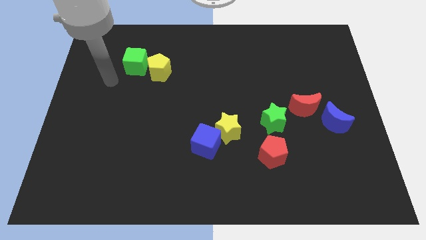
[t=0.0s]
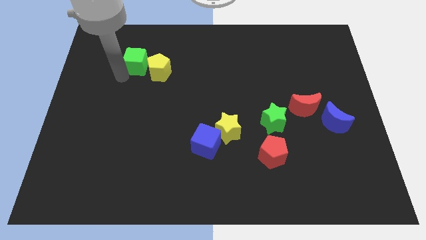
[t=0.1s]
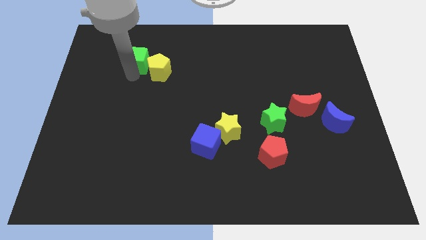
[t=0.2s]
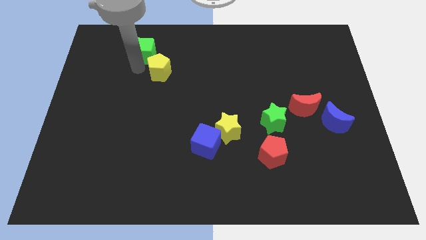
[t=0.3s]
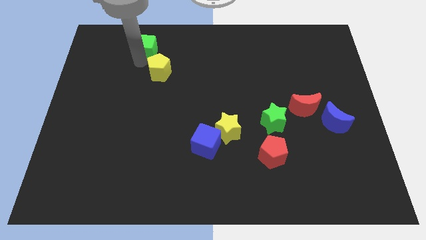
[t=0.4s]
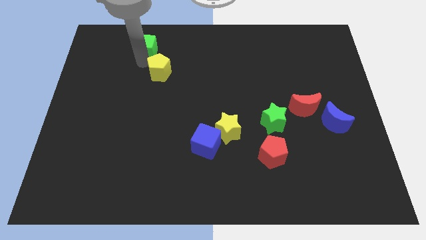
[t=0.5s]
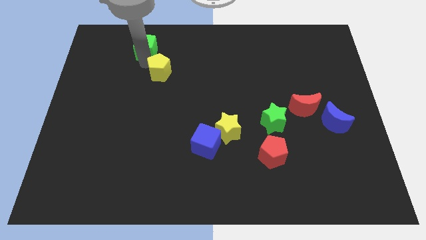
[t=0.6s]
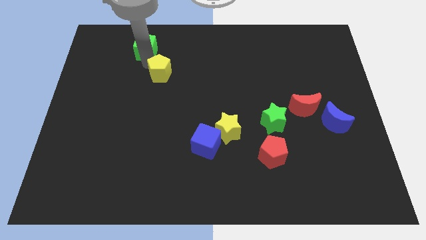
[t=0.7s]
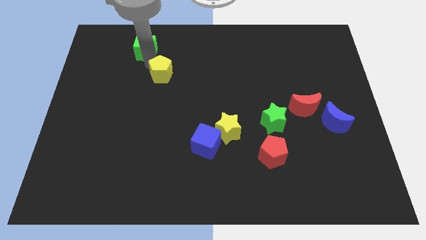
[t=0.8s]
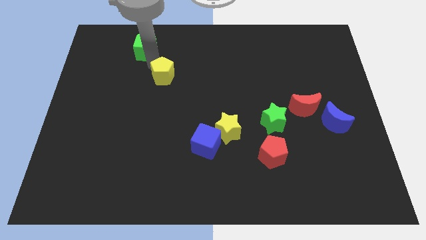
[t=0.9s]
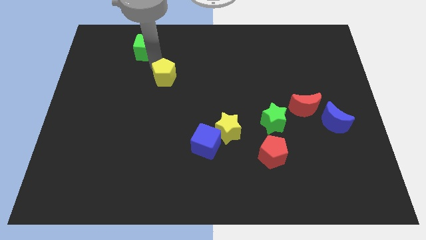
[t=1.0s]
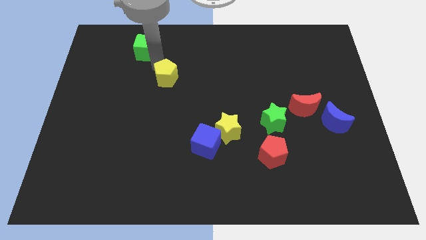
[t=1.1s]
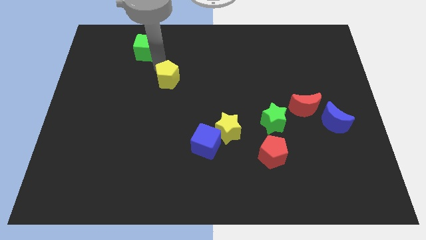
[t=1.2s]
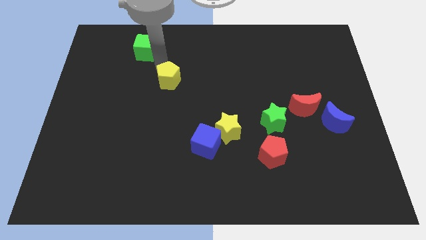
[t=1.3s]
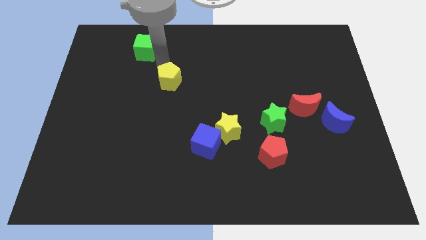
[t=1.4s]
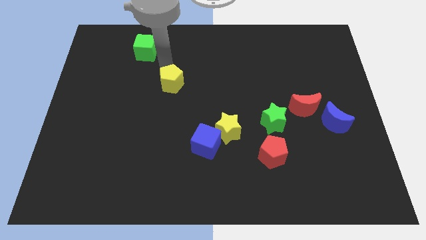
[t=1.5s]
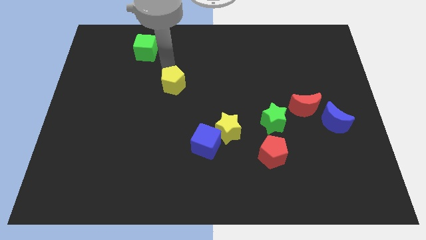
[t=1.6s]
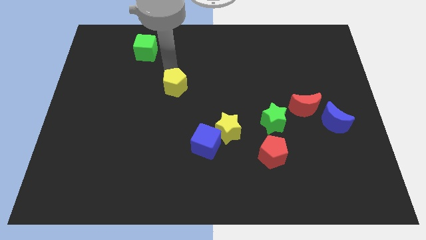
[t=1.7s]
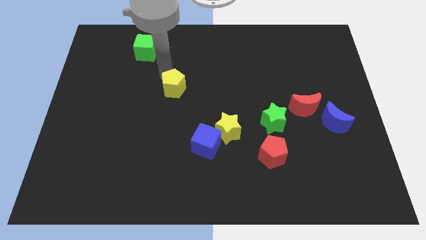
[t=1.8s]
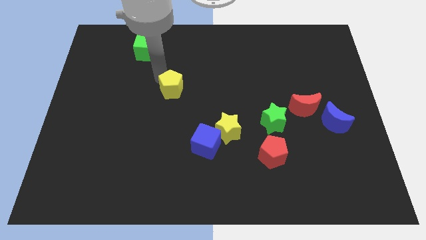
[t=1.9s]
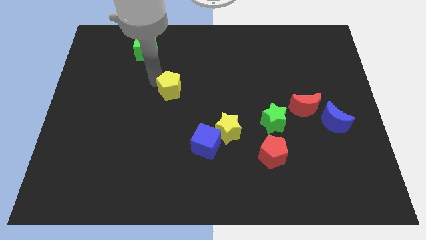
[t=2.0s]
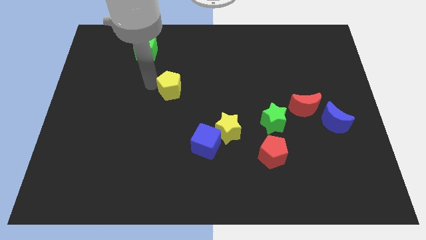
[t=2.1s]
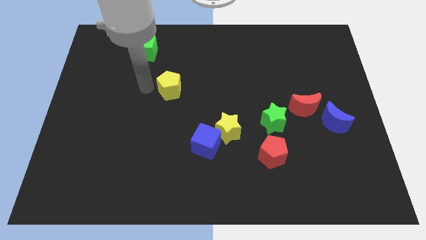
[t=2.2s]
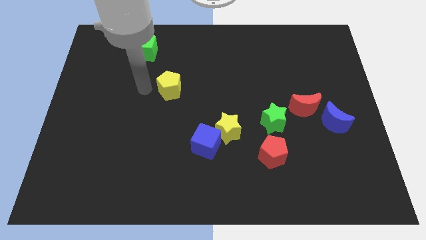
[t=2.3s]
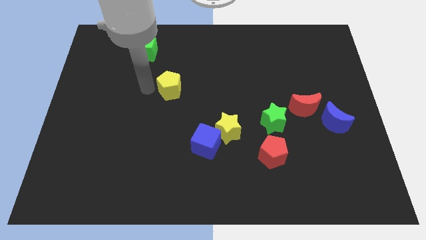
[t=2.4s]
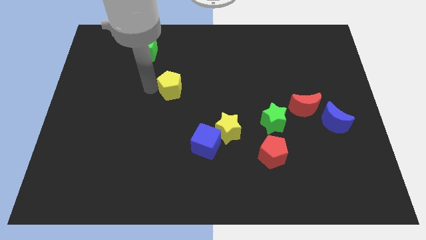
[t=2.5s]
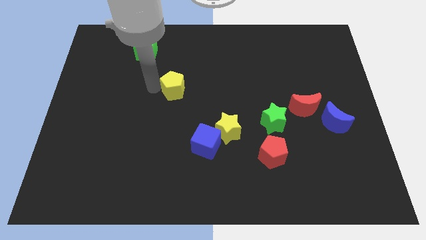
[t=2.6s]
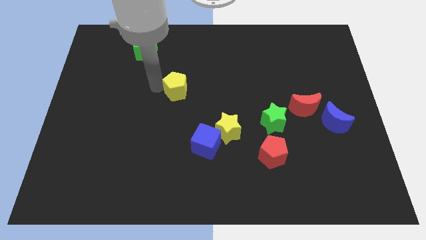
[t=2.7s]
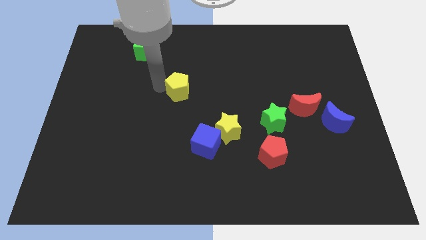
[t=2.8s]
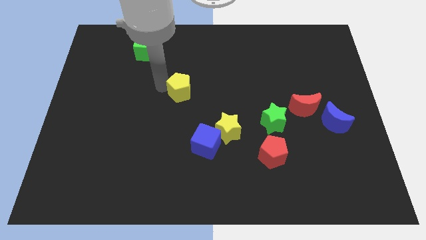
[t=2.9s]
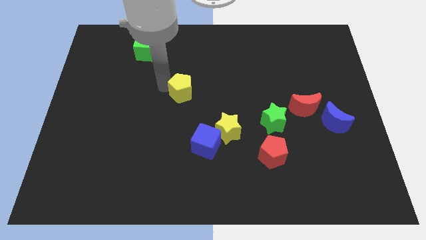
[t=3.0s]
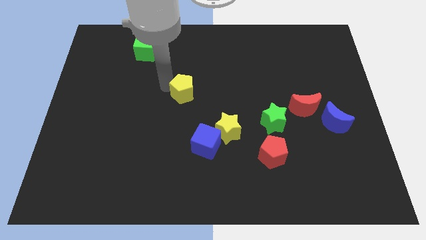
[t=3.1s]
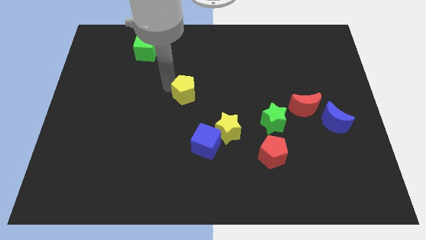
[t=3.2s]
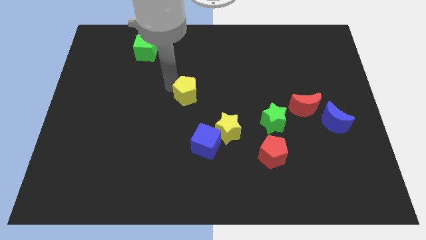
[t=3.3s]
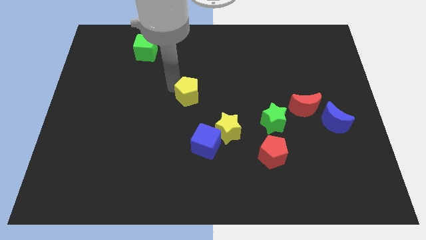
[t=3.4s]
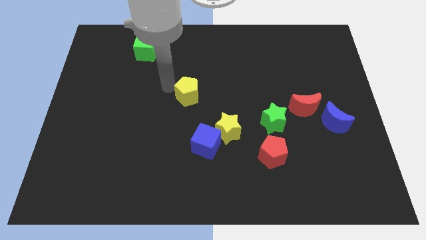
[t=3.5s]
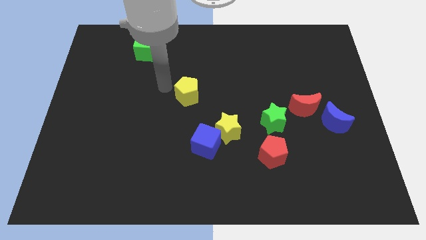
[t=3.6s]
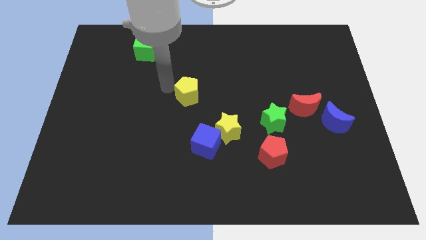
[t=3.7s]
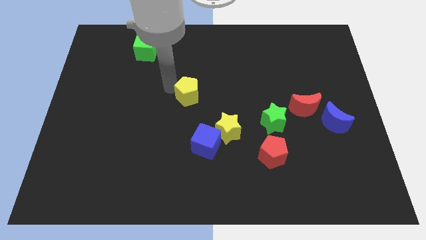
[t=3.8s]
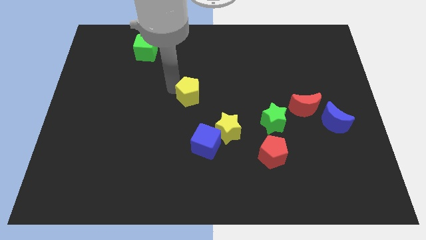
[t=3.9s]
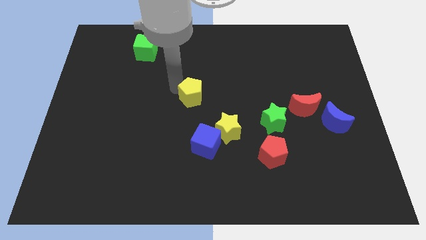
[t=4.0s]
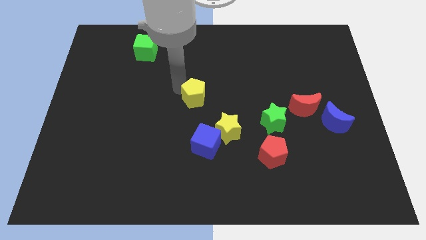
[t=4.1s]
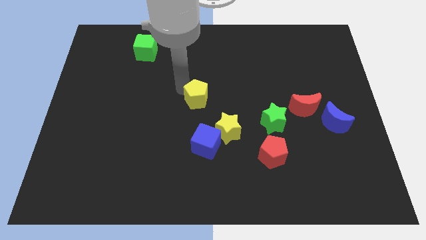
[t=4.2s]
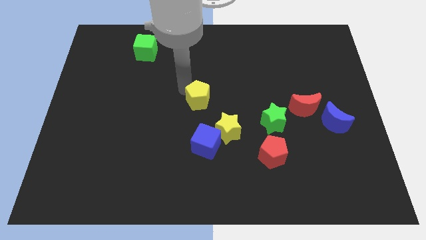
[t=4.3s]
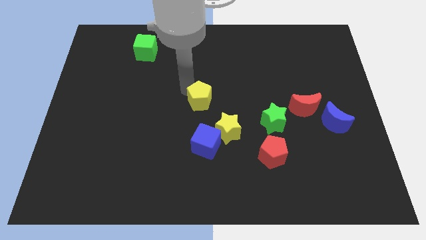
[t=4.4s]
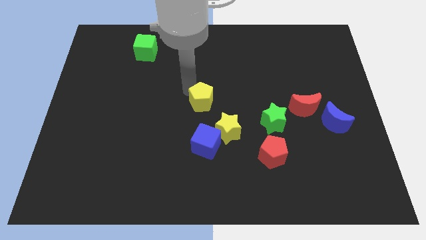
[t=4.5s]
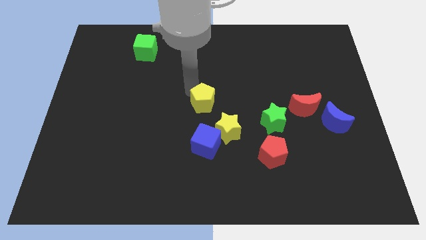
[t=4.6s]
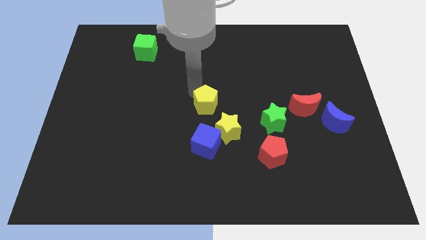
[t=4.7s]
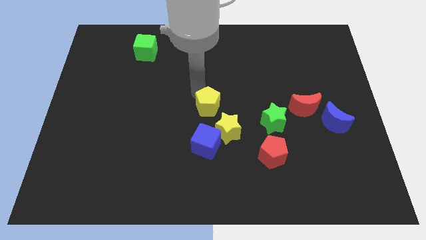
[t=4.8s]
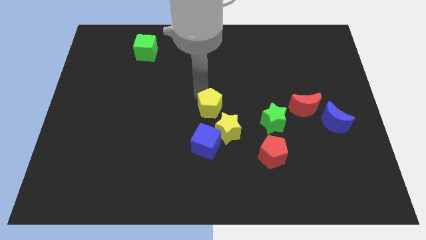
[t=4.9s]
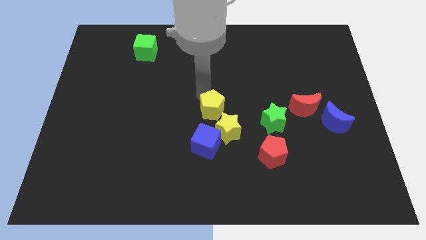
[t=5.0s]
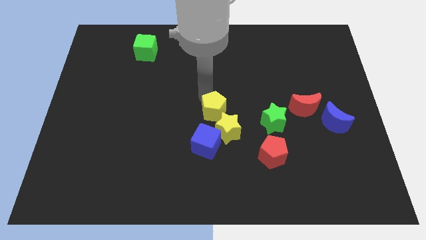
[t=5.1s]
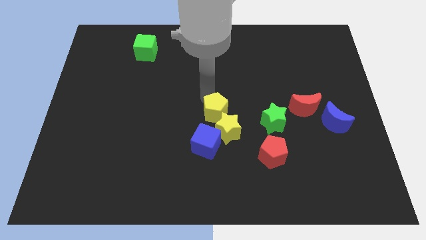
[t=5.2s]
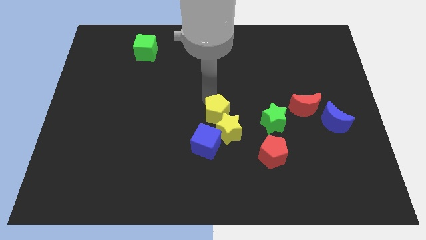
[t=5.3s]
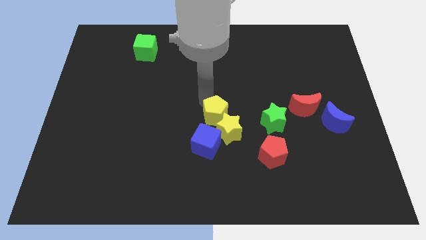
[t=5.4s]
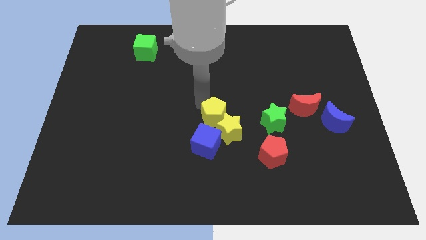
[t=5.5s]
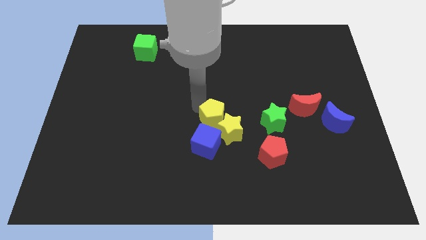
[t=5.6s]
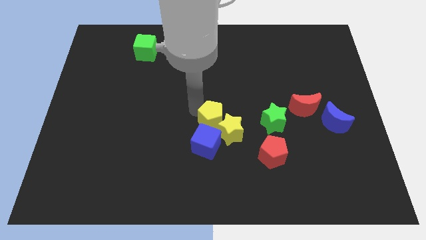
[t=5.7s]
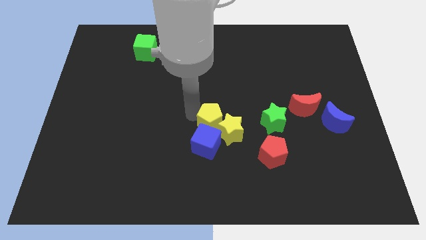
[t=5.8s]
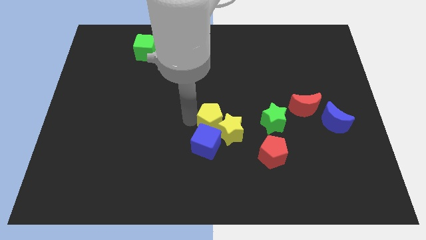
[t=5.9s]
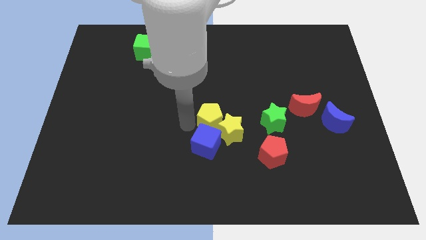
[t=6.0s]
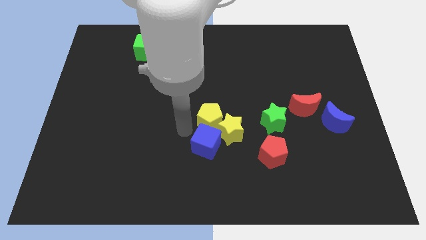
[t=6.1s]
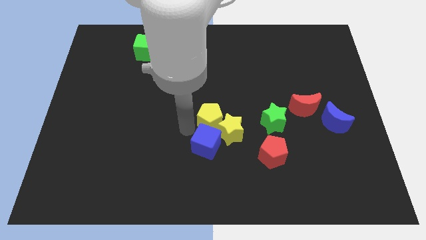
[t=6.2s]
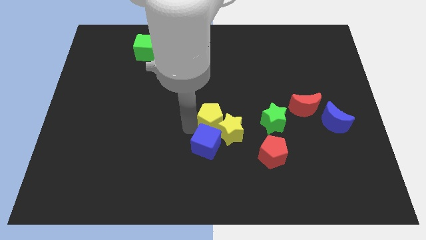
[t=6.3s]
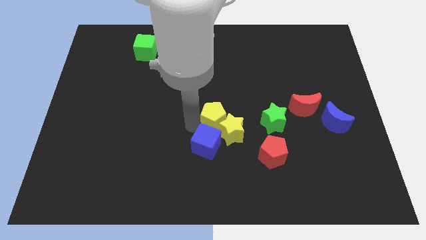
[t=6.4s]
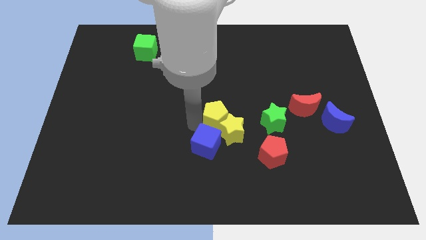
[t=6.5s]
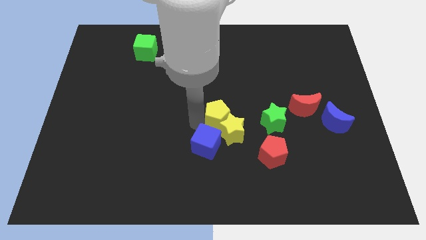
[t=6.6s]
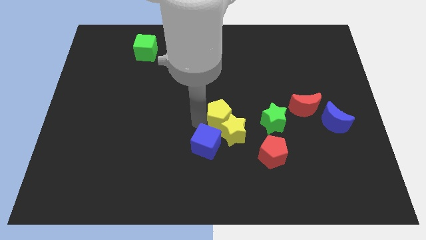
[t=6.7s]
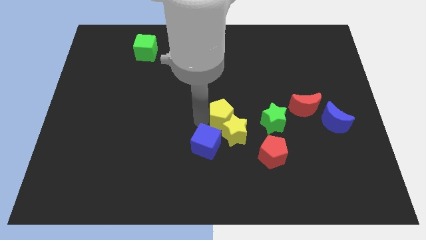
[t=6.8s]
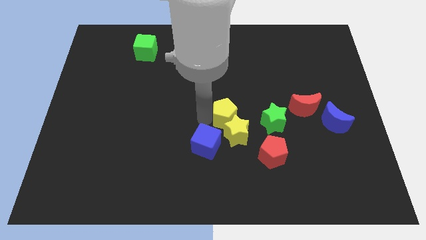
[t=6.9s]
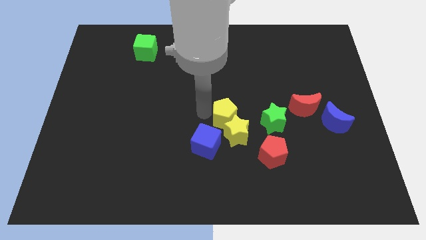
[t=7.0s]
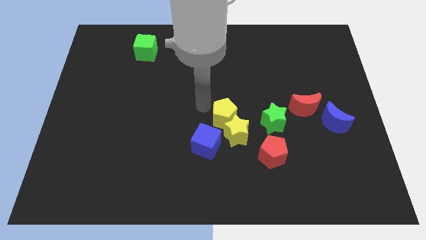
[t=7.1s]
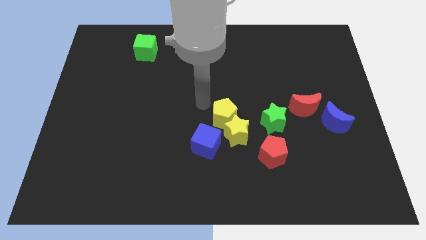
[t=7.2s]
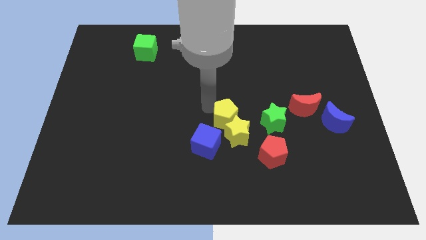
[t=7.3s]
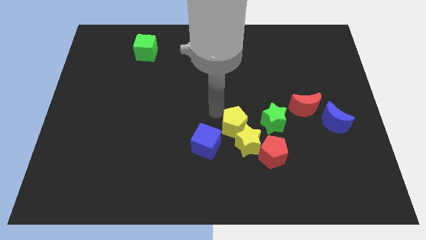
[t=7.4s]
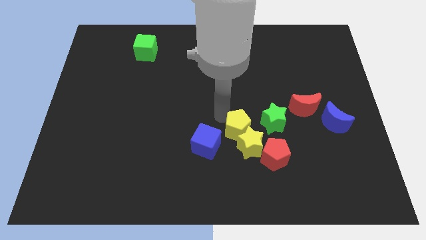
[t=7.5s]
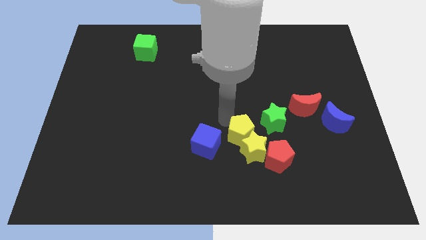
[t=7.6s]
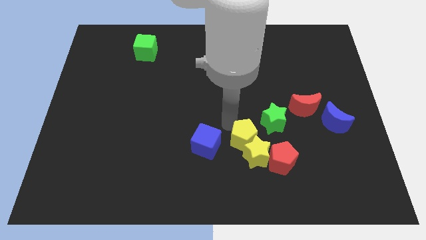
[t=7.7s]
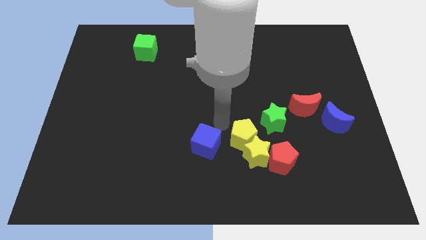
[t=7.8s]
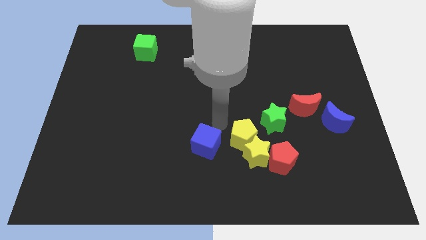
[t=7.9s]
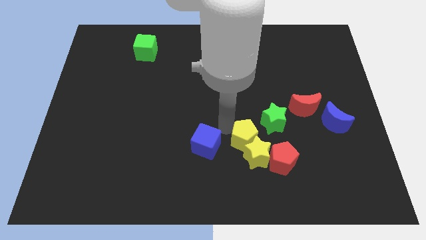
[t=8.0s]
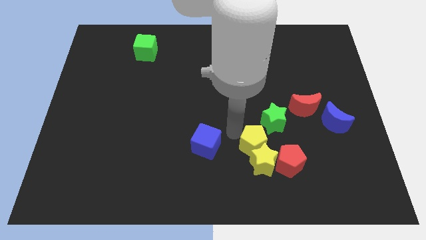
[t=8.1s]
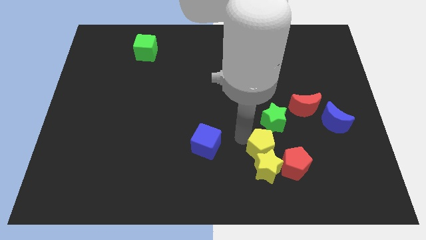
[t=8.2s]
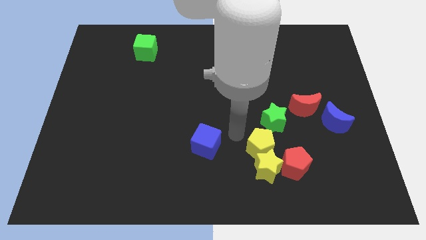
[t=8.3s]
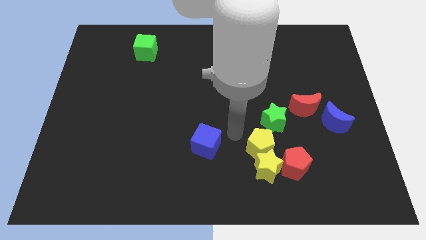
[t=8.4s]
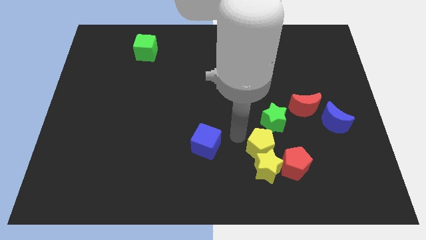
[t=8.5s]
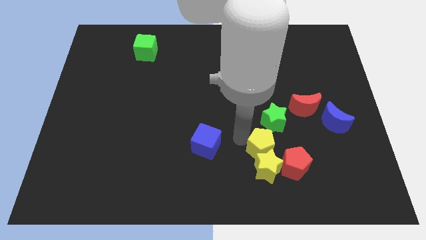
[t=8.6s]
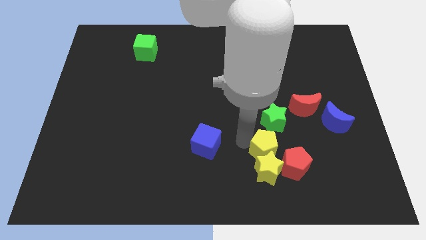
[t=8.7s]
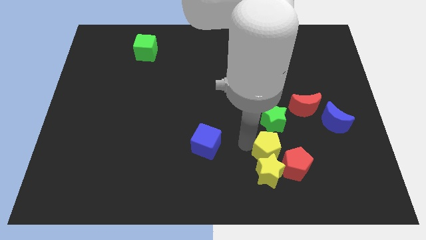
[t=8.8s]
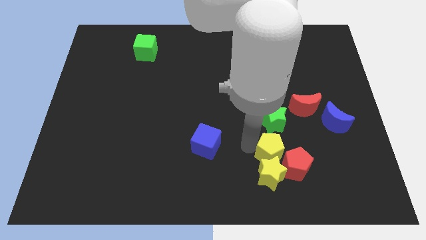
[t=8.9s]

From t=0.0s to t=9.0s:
move the yellow pentagon next to the red pentagon
